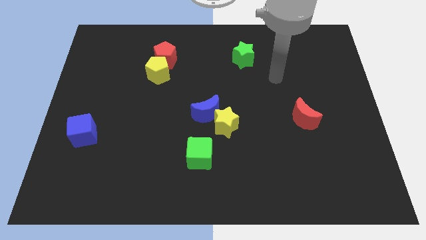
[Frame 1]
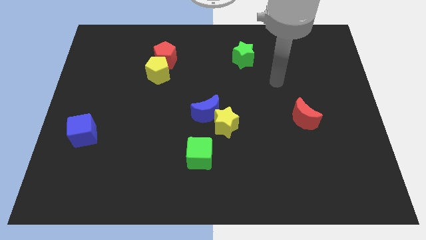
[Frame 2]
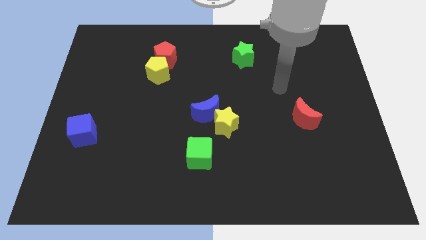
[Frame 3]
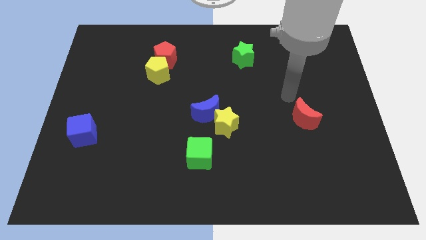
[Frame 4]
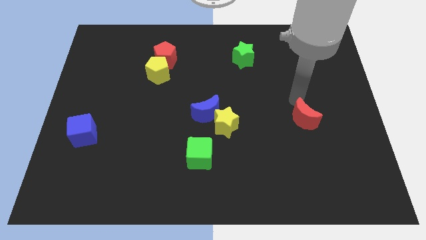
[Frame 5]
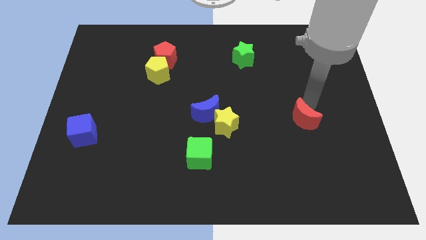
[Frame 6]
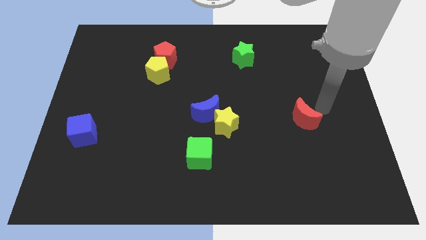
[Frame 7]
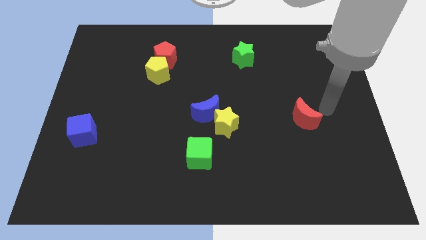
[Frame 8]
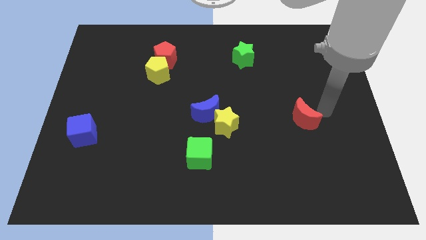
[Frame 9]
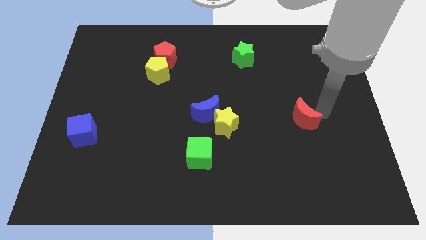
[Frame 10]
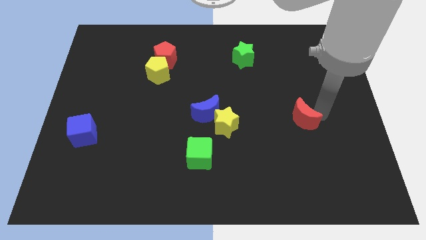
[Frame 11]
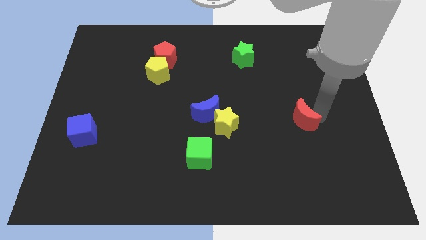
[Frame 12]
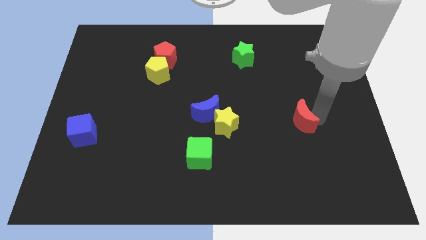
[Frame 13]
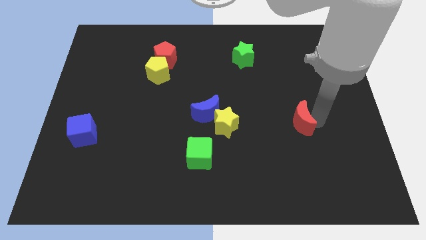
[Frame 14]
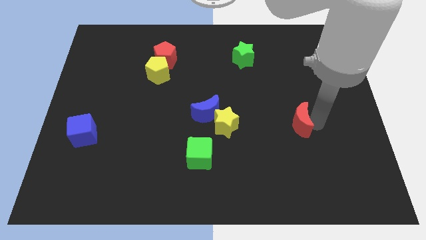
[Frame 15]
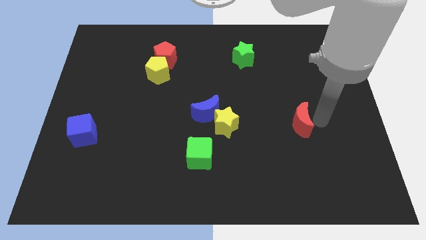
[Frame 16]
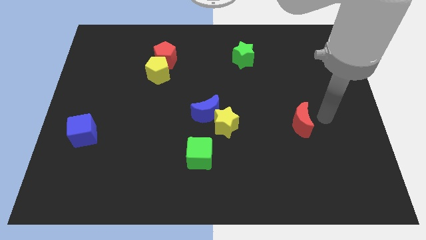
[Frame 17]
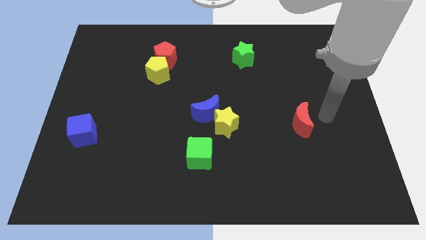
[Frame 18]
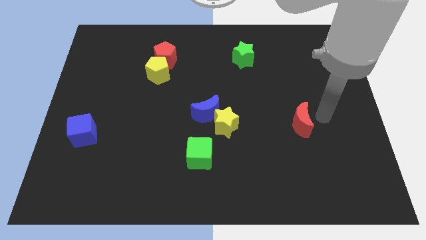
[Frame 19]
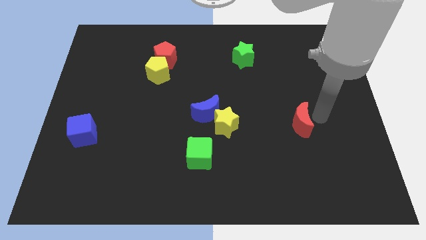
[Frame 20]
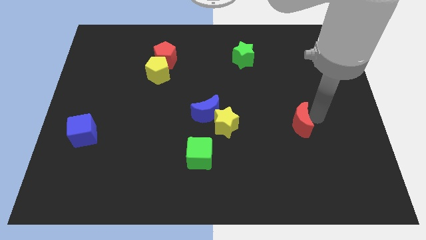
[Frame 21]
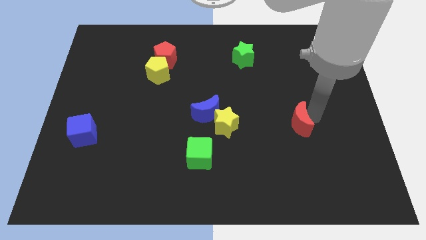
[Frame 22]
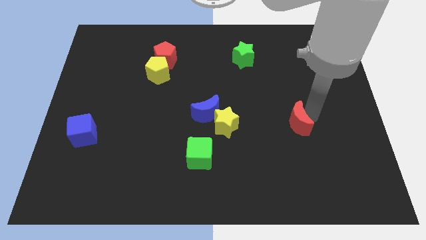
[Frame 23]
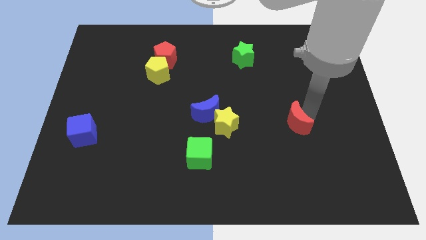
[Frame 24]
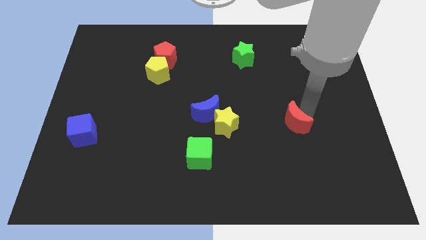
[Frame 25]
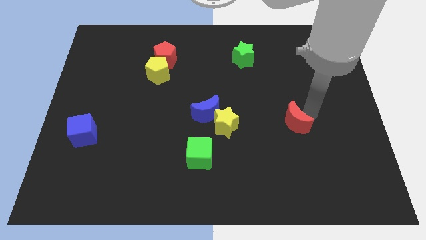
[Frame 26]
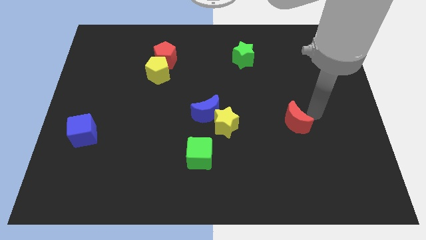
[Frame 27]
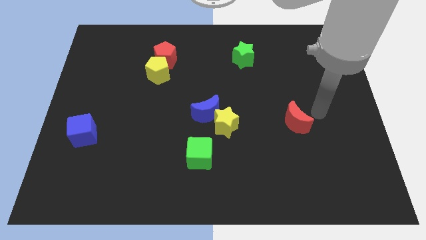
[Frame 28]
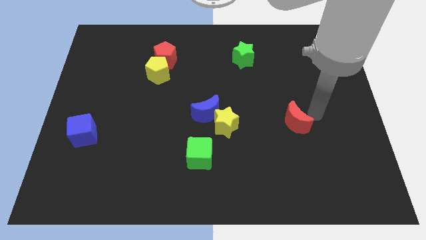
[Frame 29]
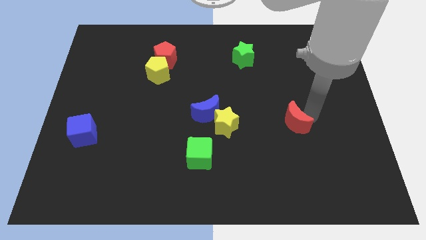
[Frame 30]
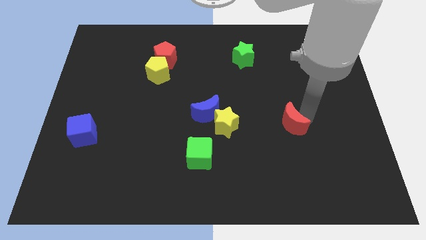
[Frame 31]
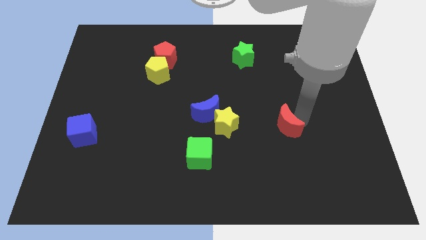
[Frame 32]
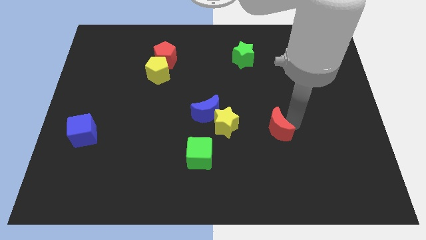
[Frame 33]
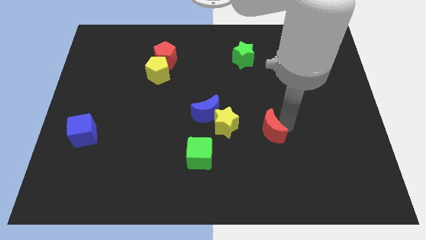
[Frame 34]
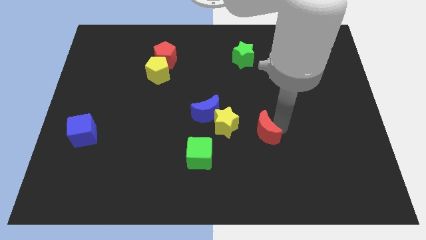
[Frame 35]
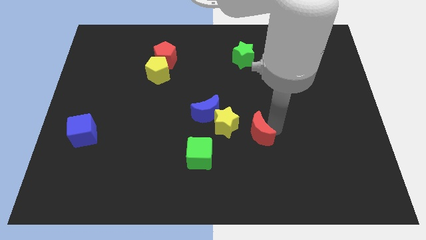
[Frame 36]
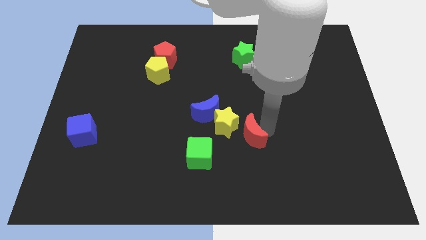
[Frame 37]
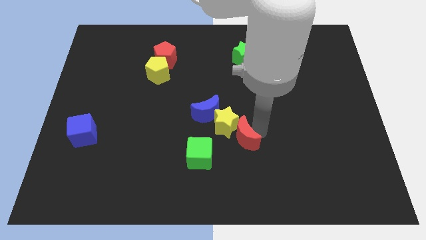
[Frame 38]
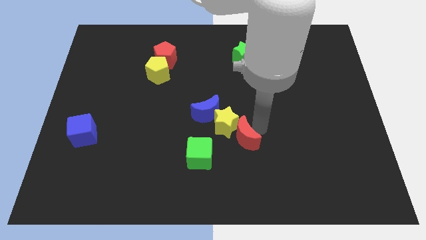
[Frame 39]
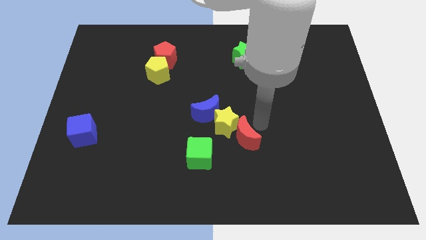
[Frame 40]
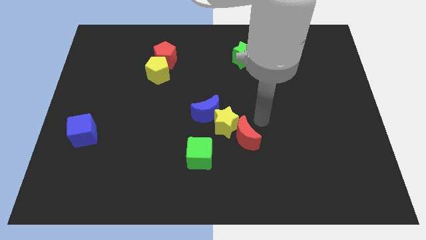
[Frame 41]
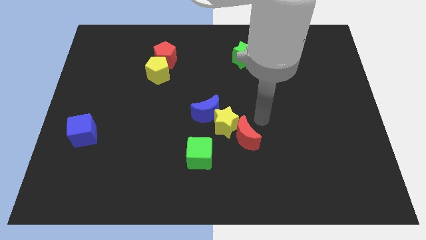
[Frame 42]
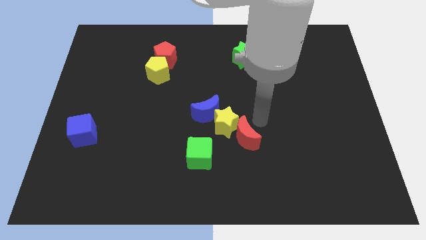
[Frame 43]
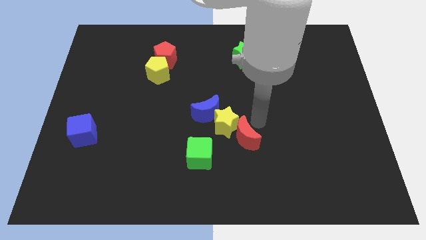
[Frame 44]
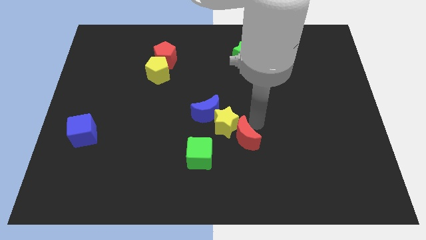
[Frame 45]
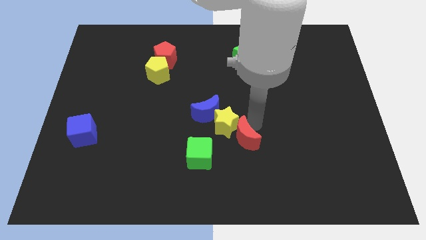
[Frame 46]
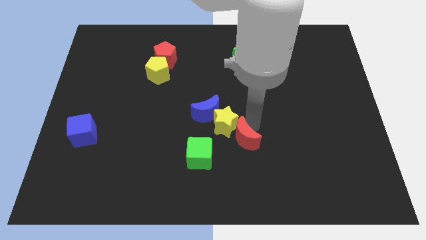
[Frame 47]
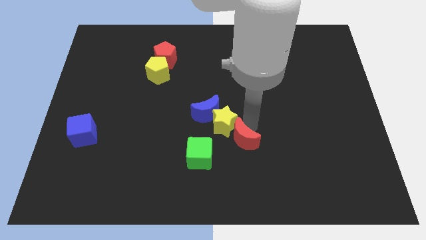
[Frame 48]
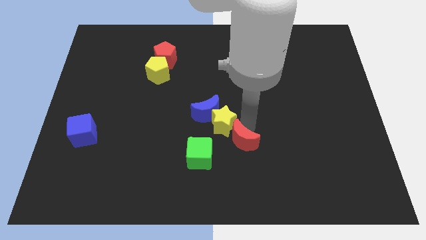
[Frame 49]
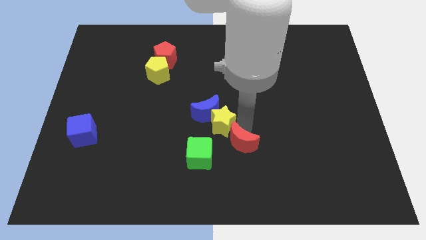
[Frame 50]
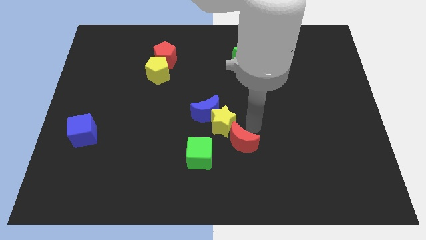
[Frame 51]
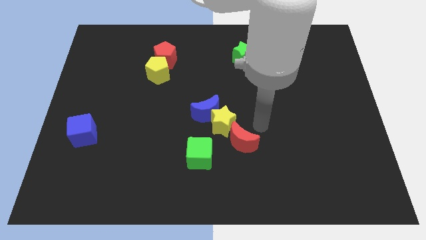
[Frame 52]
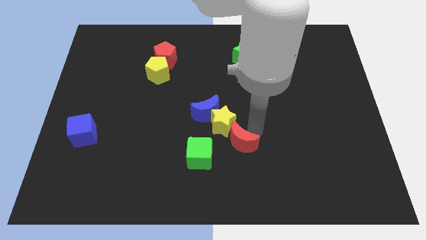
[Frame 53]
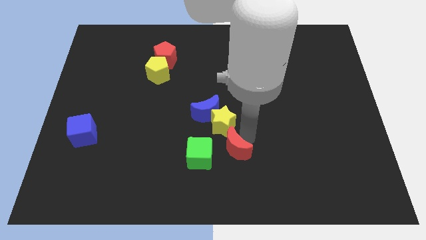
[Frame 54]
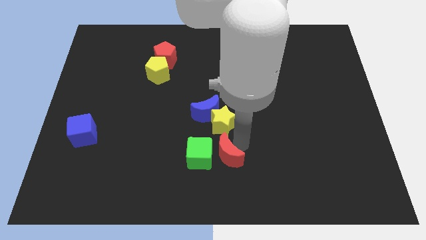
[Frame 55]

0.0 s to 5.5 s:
slide the red moon to the bottom of the blue moon
